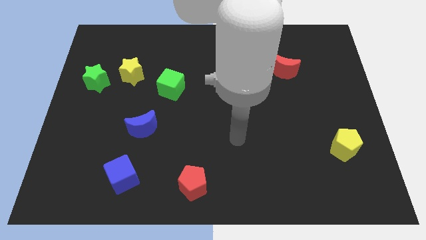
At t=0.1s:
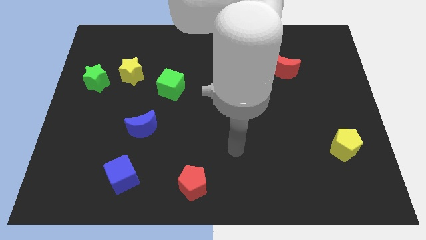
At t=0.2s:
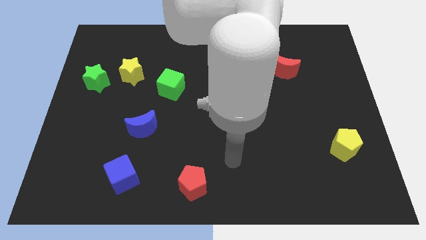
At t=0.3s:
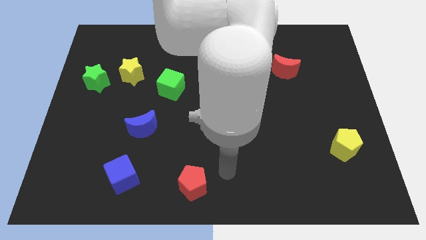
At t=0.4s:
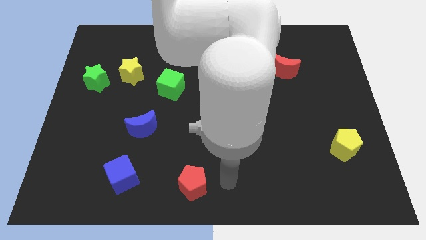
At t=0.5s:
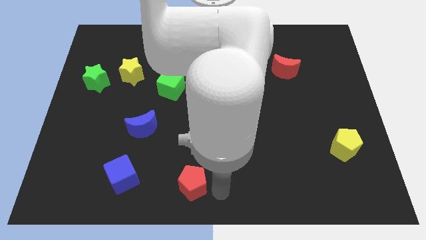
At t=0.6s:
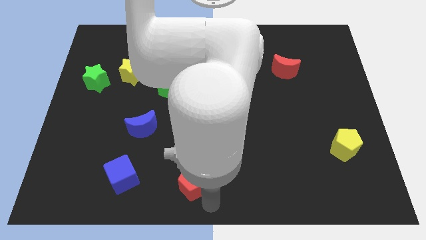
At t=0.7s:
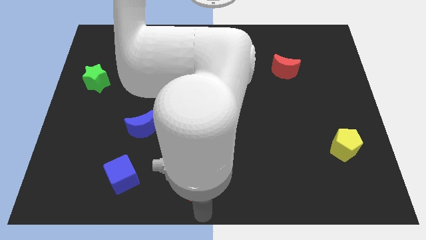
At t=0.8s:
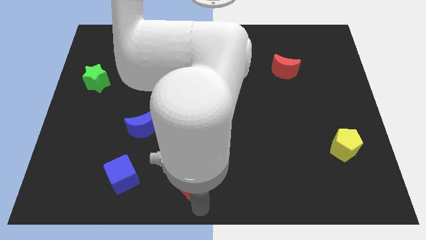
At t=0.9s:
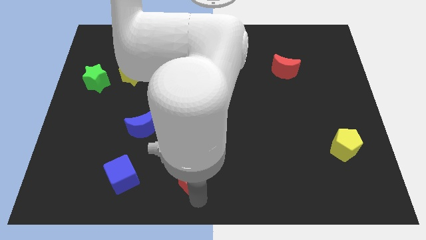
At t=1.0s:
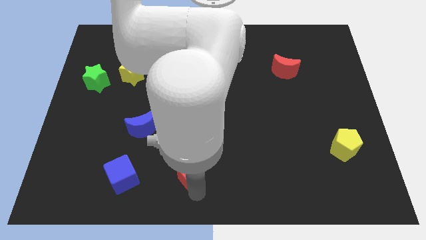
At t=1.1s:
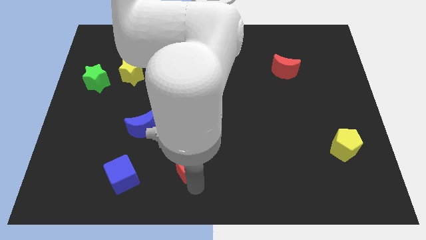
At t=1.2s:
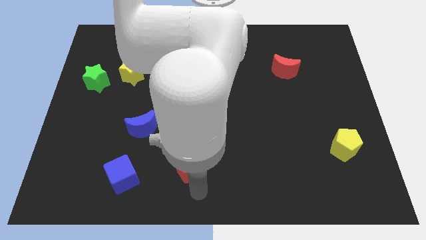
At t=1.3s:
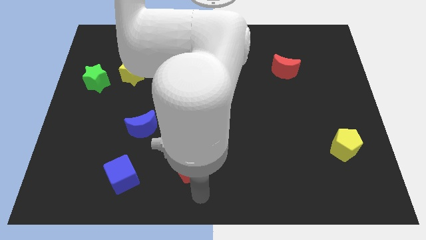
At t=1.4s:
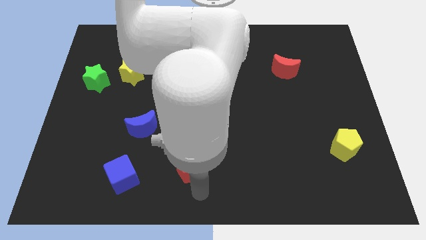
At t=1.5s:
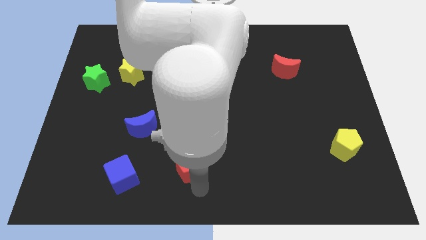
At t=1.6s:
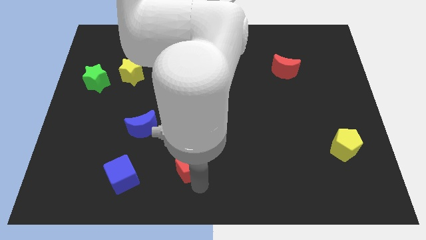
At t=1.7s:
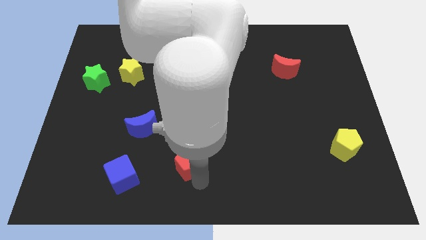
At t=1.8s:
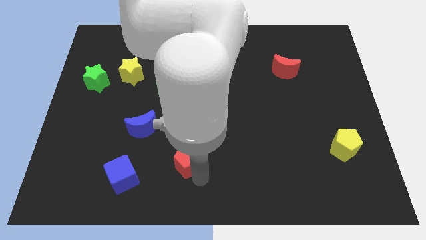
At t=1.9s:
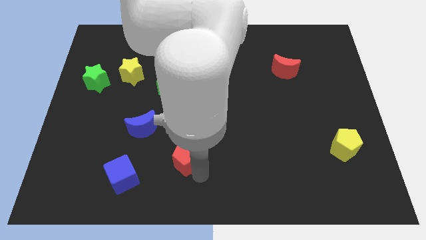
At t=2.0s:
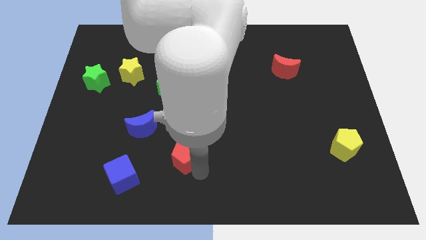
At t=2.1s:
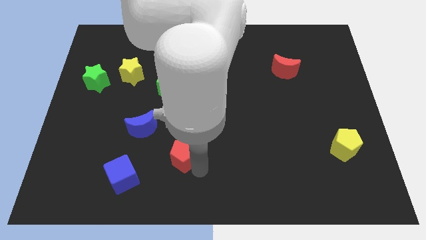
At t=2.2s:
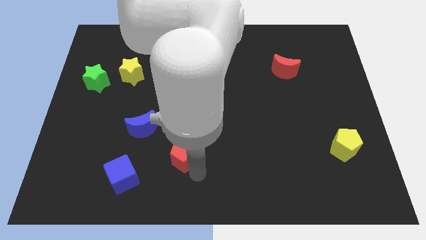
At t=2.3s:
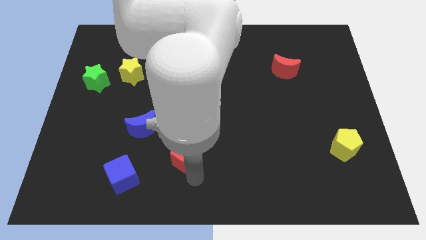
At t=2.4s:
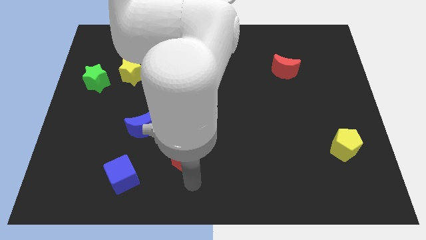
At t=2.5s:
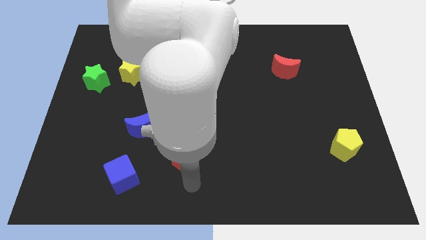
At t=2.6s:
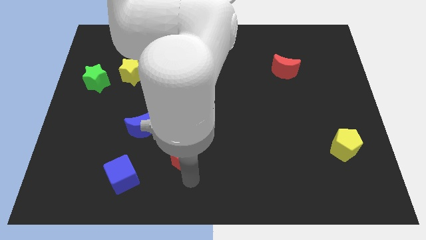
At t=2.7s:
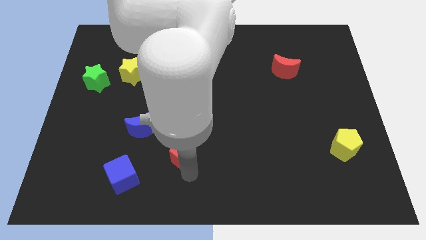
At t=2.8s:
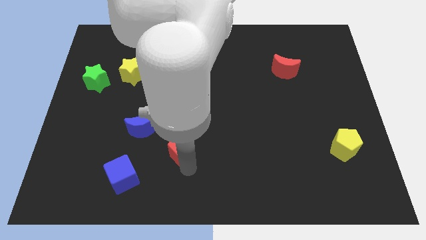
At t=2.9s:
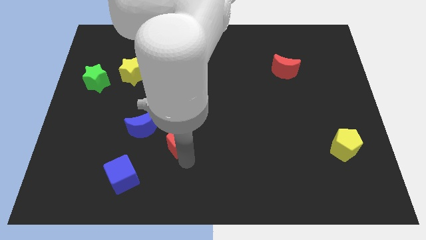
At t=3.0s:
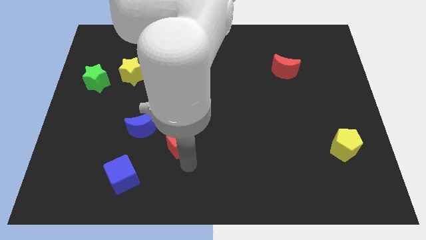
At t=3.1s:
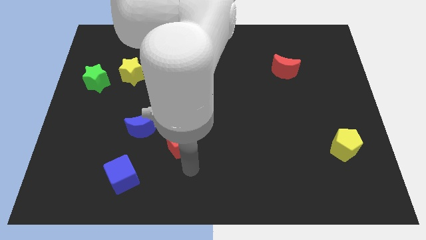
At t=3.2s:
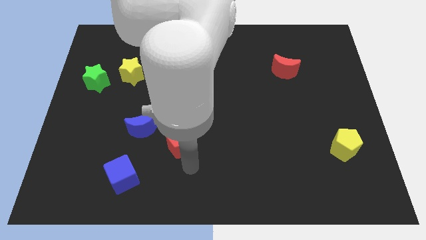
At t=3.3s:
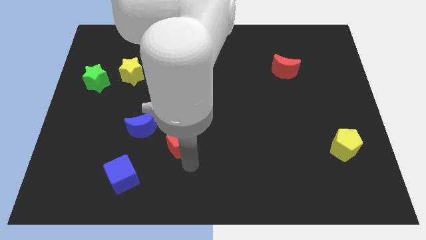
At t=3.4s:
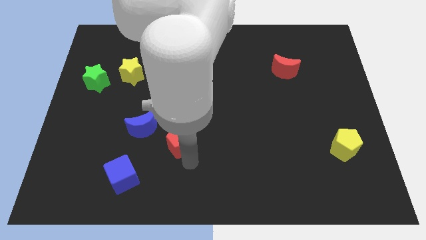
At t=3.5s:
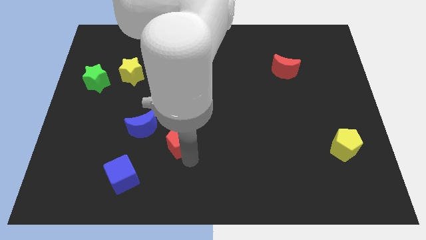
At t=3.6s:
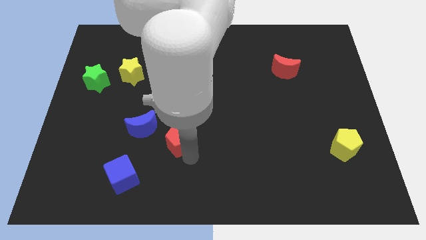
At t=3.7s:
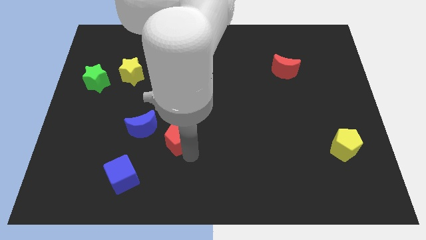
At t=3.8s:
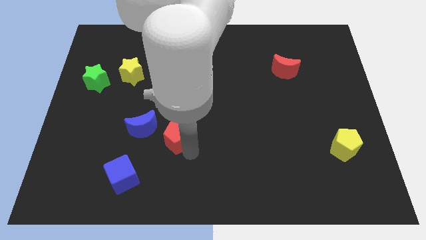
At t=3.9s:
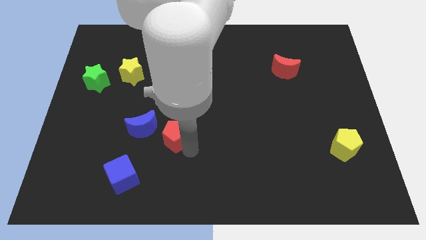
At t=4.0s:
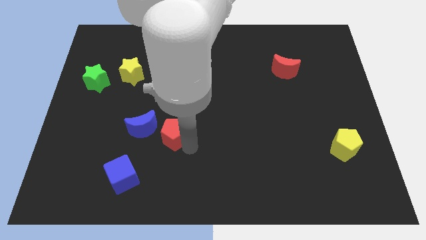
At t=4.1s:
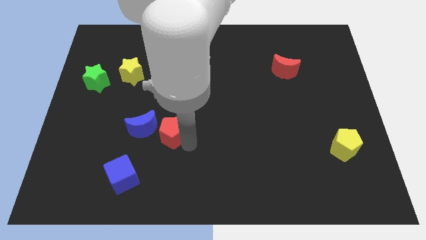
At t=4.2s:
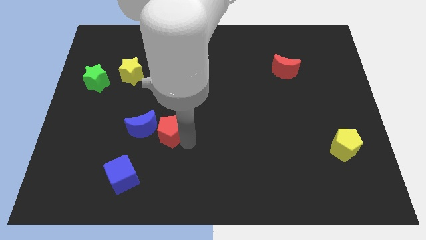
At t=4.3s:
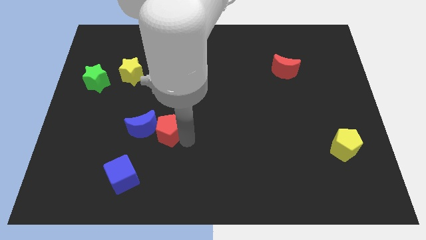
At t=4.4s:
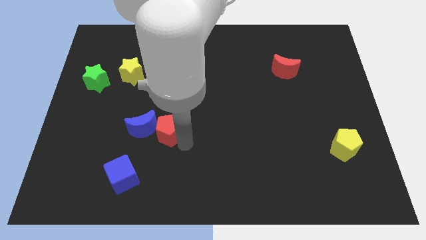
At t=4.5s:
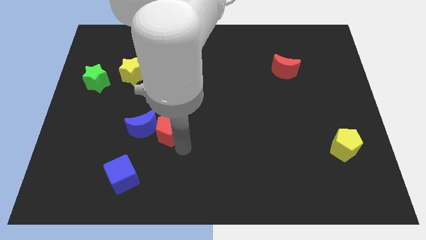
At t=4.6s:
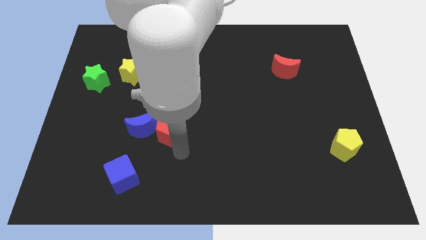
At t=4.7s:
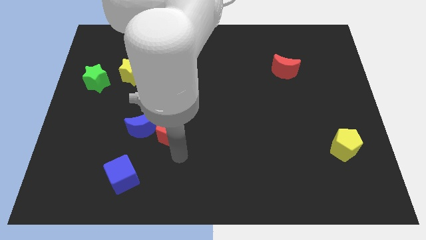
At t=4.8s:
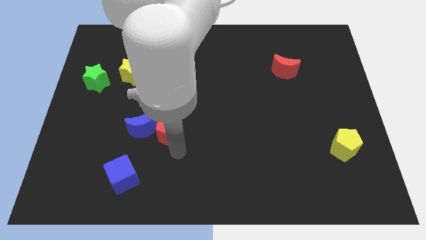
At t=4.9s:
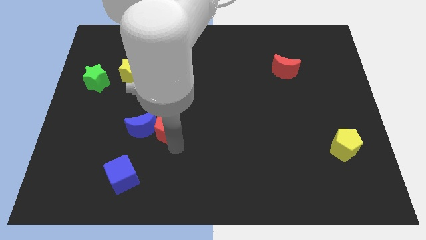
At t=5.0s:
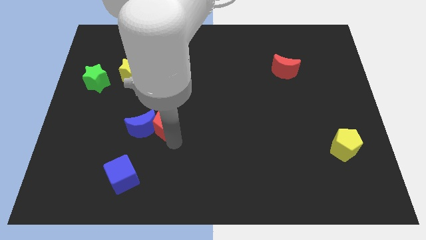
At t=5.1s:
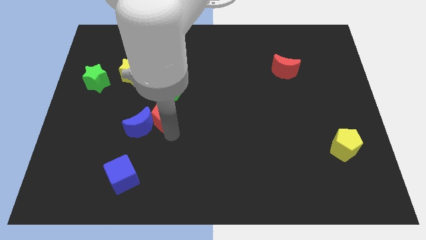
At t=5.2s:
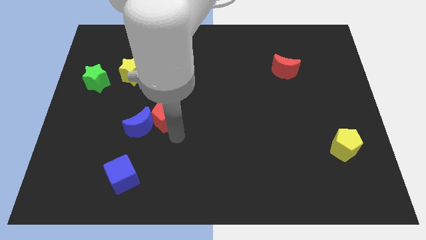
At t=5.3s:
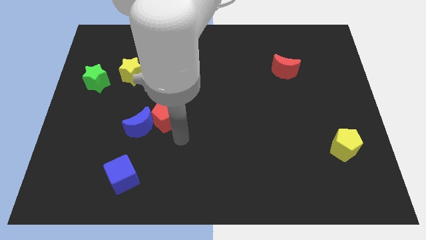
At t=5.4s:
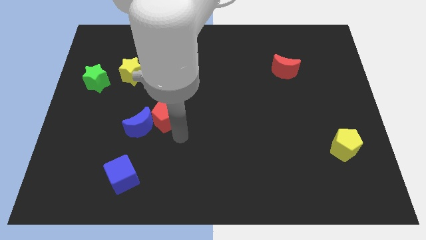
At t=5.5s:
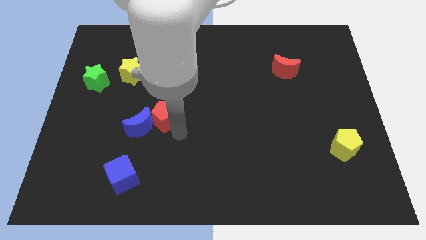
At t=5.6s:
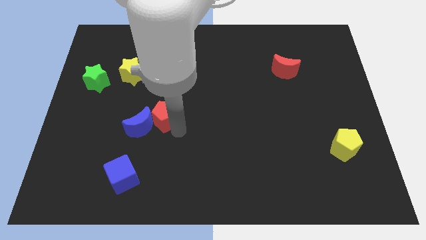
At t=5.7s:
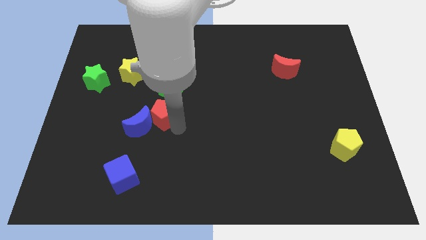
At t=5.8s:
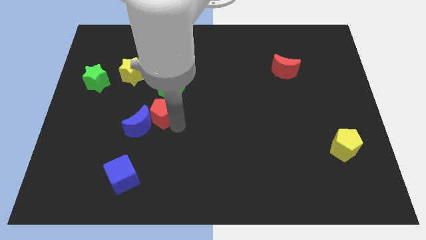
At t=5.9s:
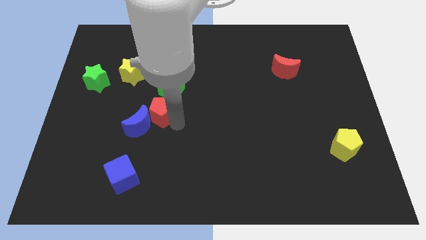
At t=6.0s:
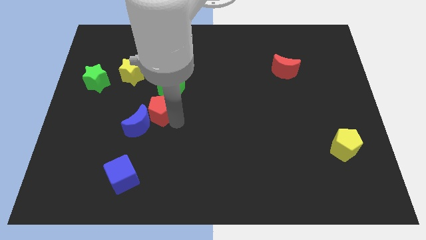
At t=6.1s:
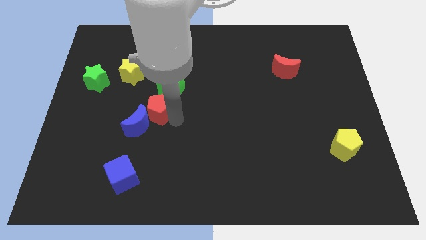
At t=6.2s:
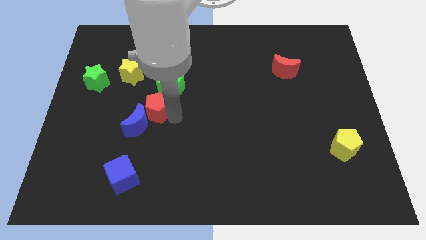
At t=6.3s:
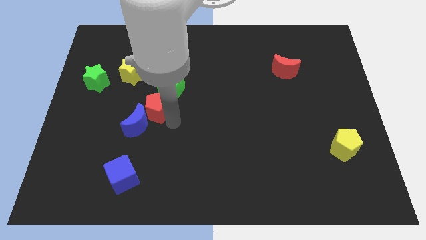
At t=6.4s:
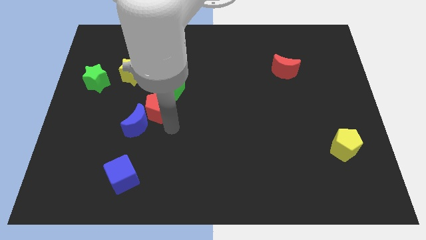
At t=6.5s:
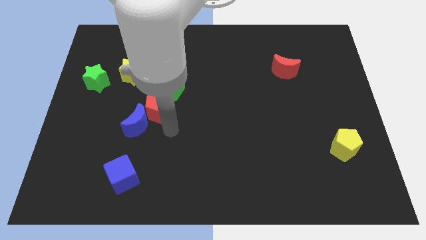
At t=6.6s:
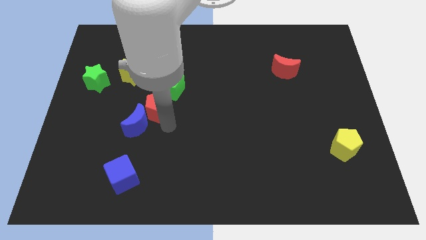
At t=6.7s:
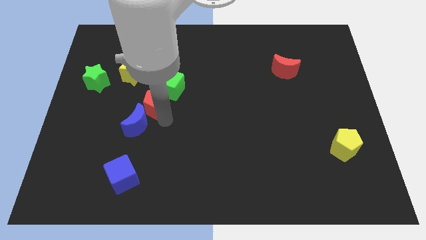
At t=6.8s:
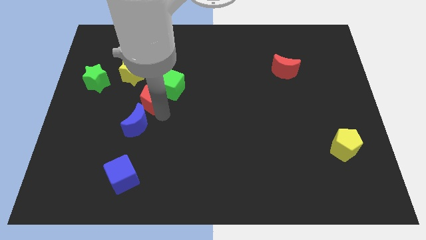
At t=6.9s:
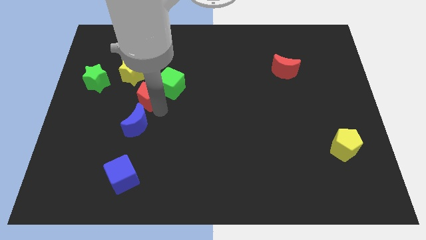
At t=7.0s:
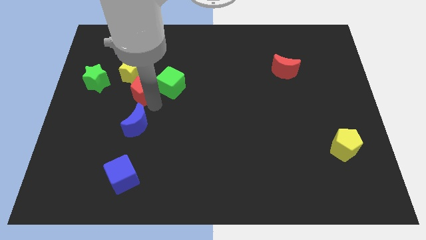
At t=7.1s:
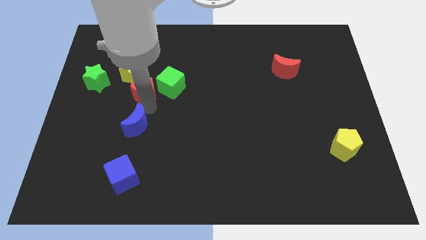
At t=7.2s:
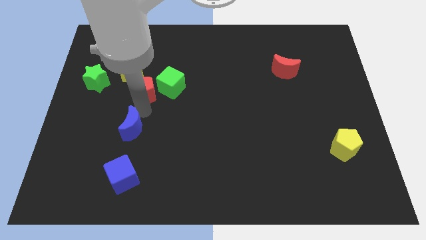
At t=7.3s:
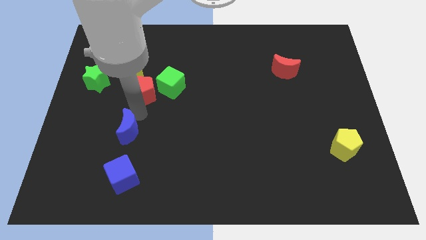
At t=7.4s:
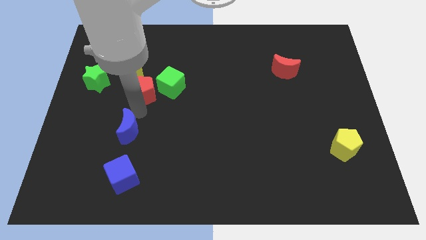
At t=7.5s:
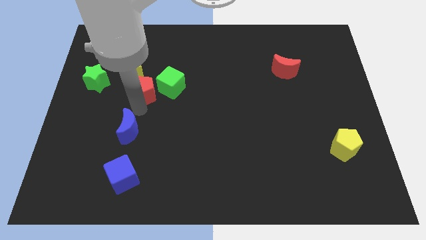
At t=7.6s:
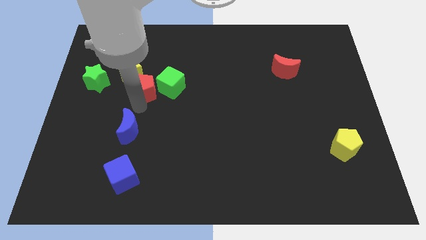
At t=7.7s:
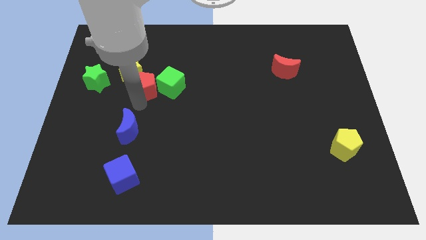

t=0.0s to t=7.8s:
put the red pentagon diagonally up and to the left of the green cube
